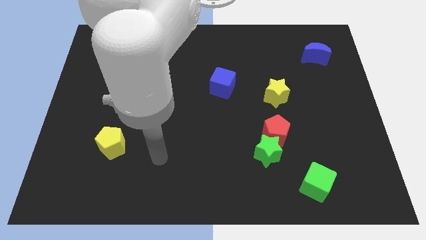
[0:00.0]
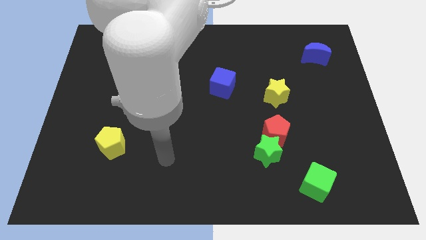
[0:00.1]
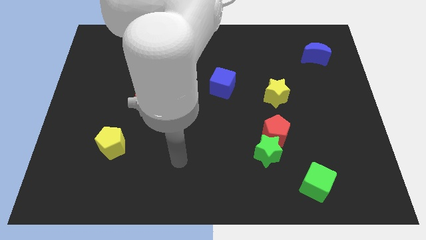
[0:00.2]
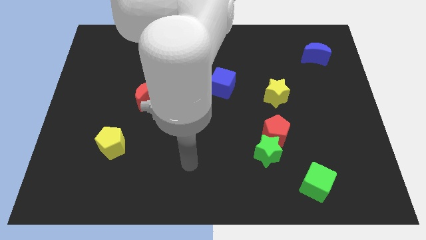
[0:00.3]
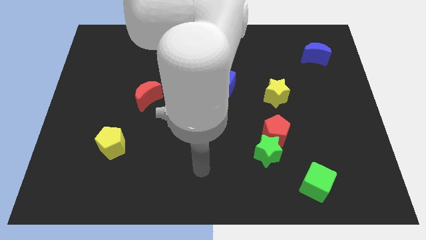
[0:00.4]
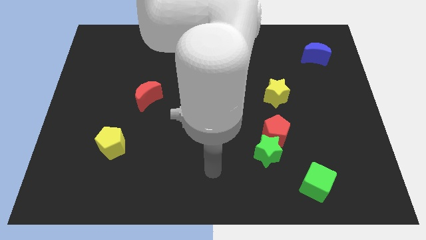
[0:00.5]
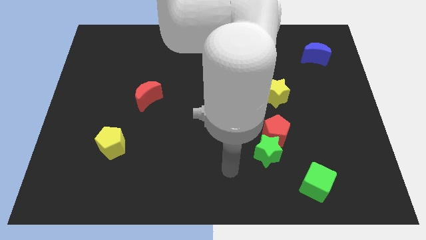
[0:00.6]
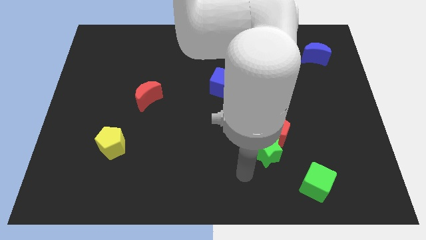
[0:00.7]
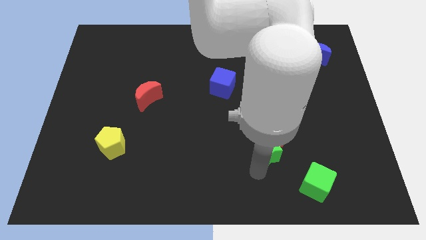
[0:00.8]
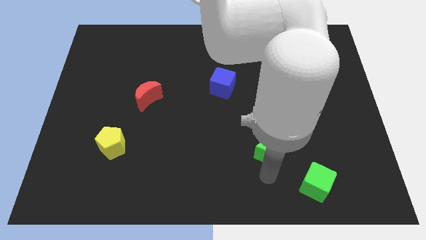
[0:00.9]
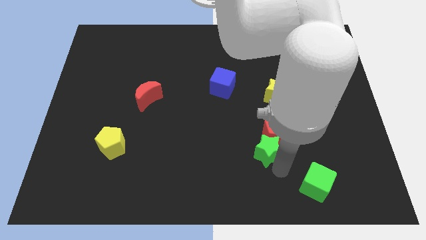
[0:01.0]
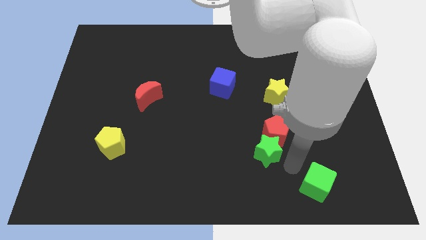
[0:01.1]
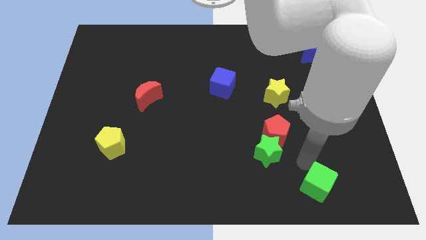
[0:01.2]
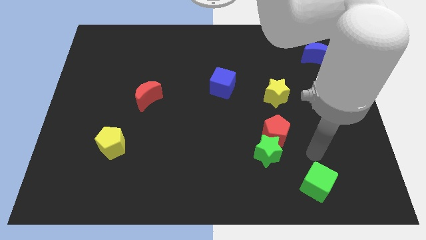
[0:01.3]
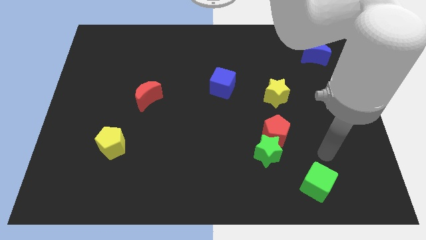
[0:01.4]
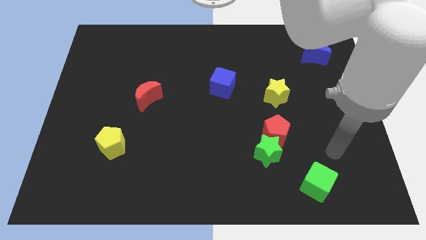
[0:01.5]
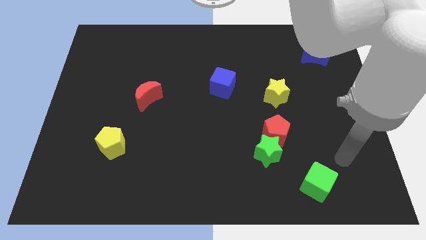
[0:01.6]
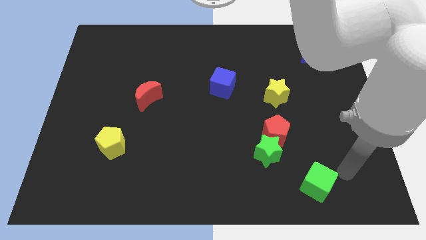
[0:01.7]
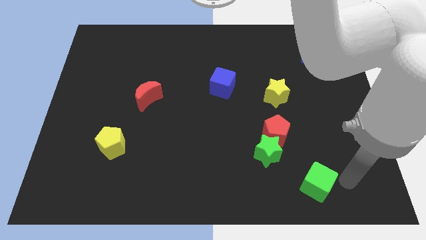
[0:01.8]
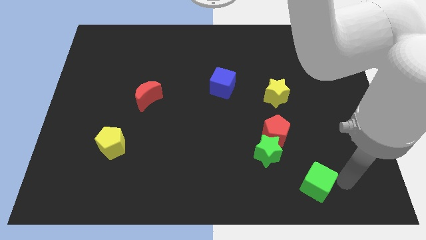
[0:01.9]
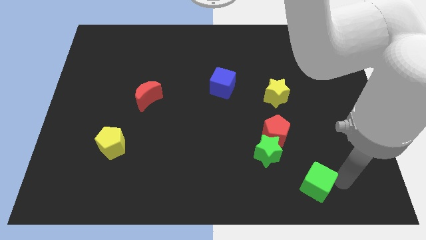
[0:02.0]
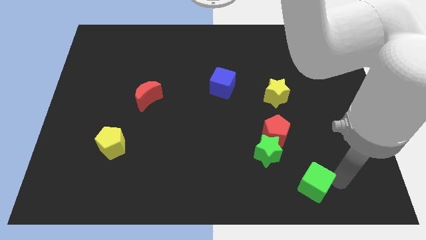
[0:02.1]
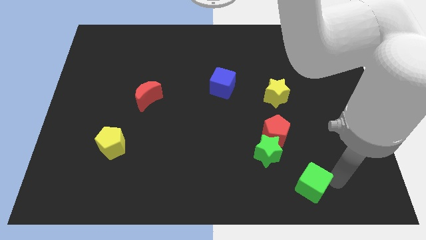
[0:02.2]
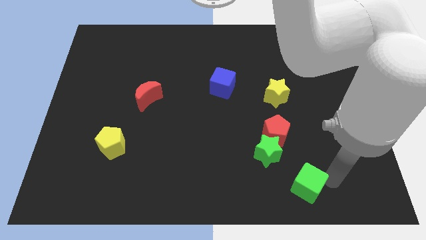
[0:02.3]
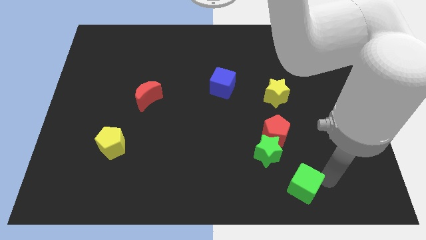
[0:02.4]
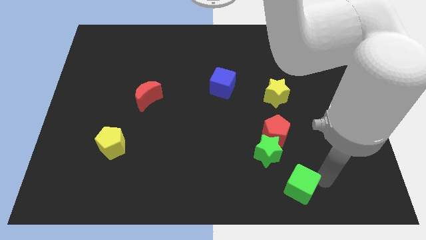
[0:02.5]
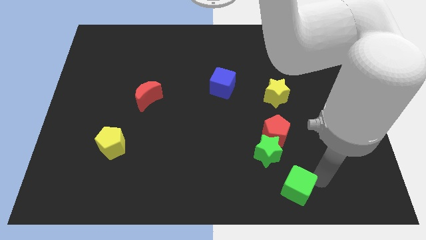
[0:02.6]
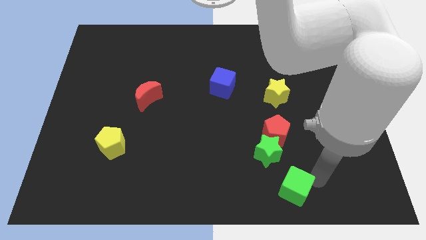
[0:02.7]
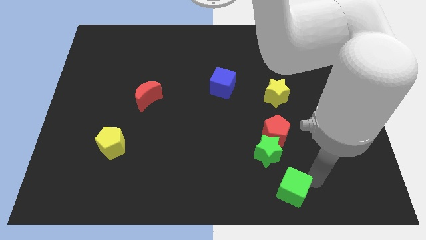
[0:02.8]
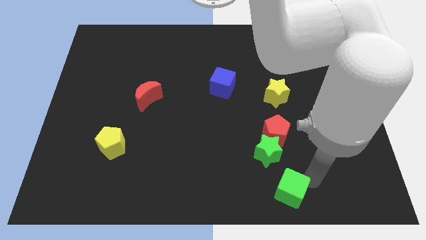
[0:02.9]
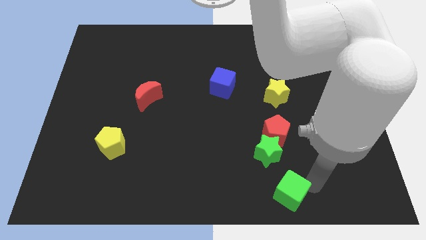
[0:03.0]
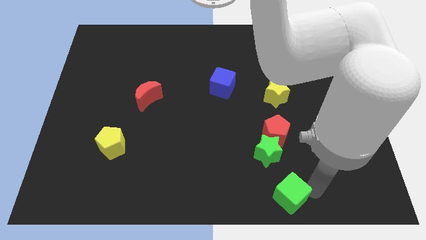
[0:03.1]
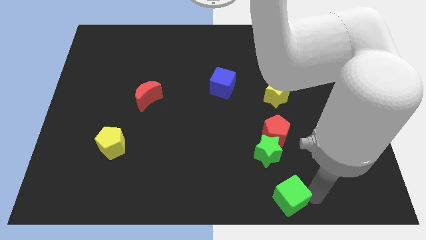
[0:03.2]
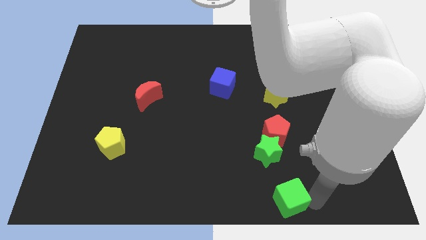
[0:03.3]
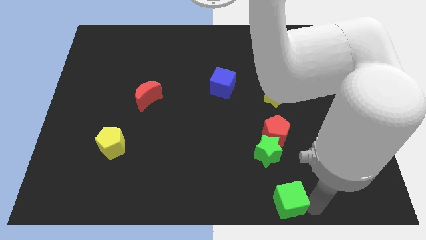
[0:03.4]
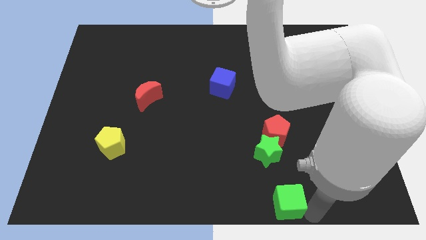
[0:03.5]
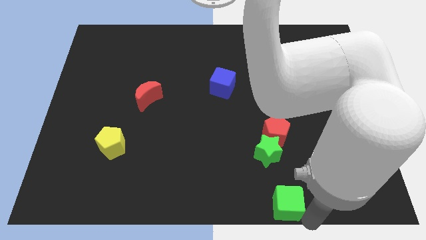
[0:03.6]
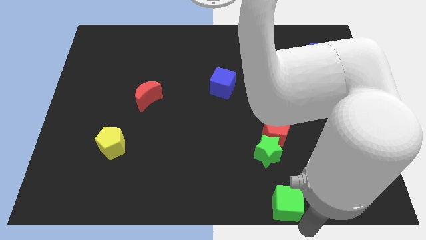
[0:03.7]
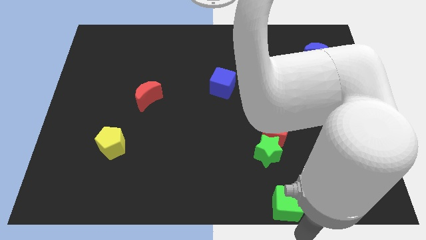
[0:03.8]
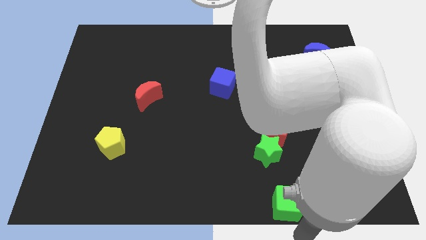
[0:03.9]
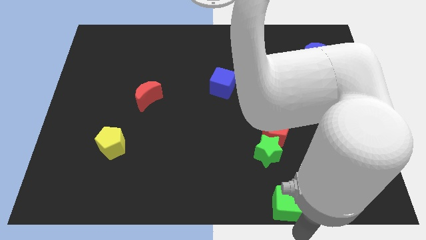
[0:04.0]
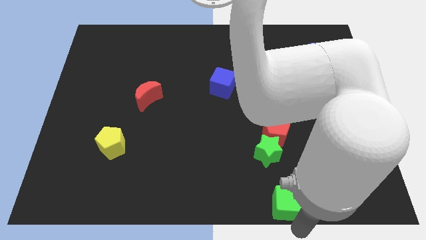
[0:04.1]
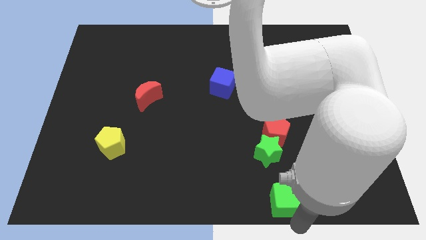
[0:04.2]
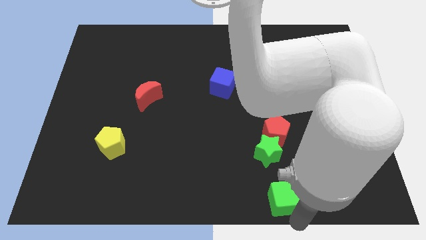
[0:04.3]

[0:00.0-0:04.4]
move the green cube to the left somewhat

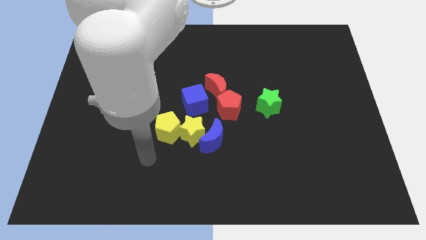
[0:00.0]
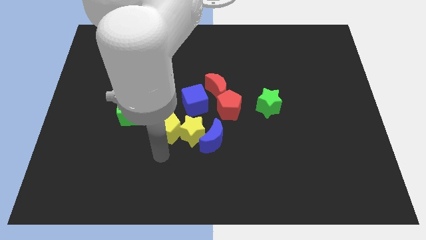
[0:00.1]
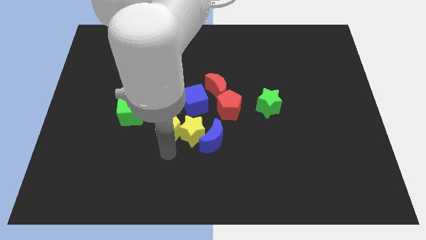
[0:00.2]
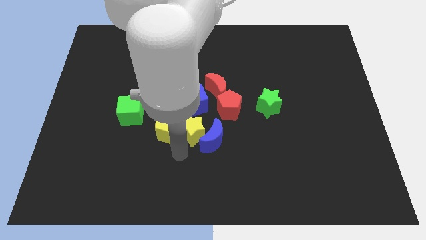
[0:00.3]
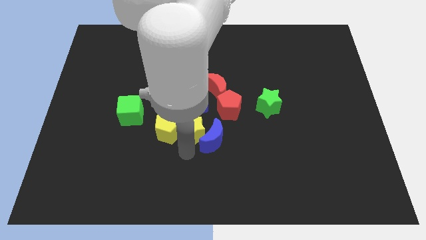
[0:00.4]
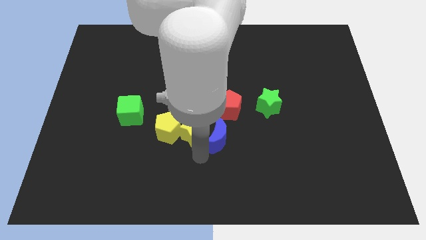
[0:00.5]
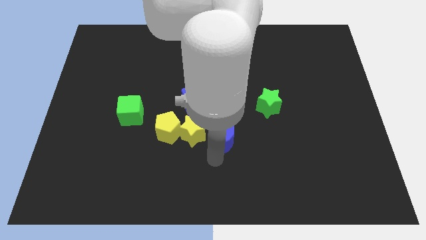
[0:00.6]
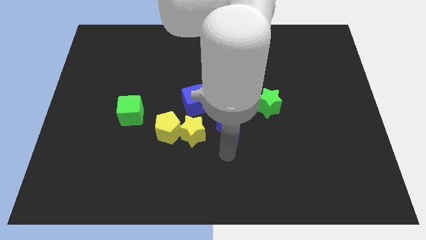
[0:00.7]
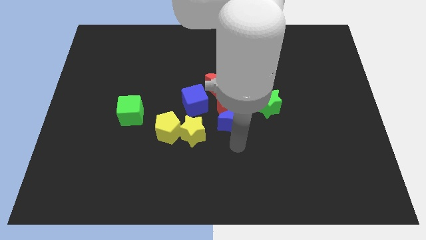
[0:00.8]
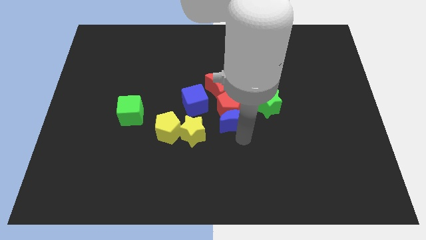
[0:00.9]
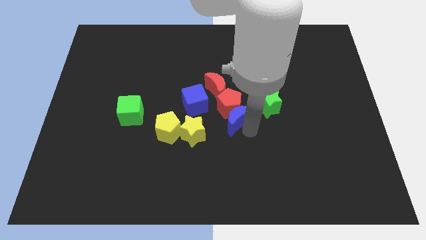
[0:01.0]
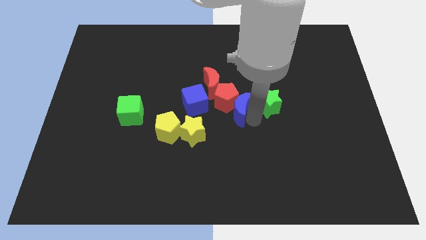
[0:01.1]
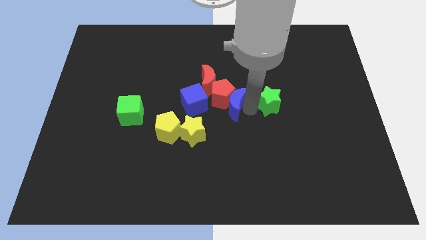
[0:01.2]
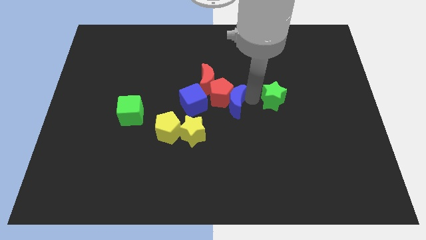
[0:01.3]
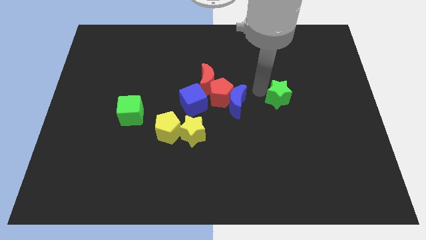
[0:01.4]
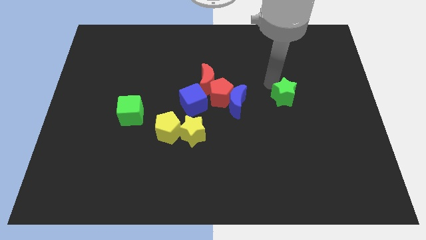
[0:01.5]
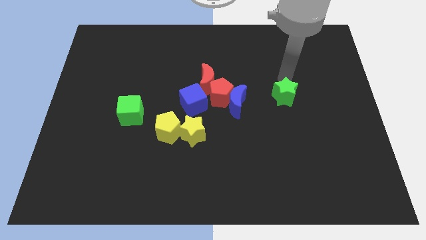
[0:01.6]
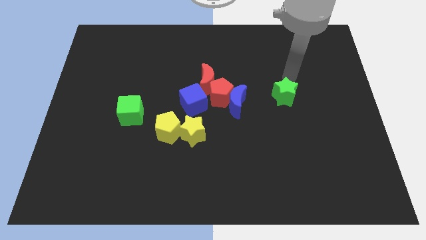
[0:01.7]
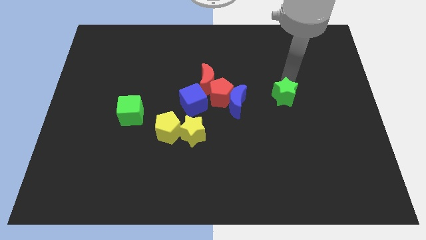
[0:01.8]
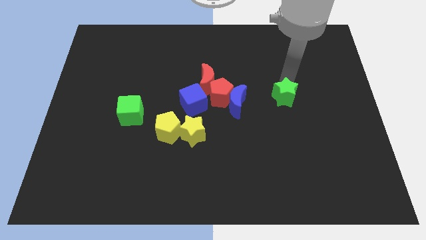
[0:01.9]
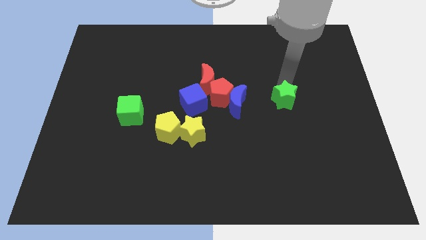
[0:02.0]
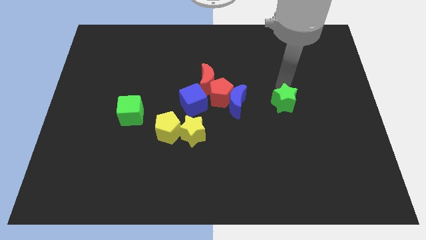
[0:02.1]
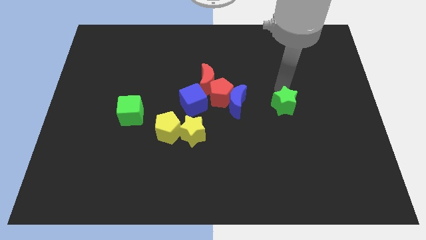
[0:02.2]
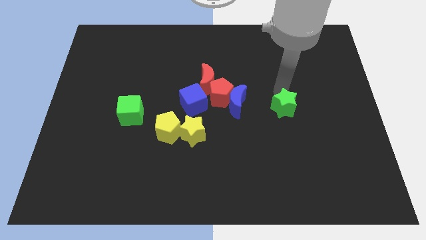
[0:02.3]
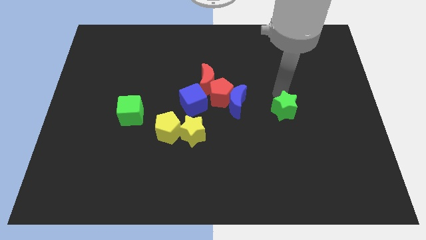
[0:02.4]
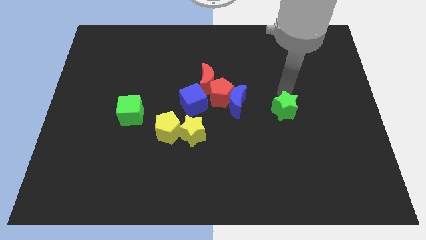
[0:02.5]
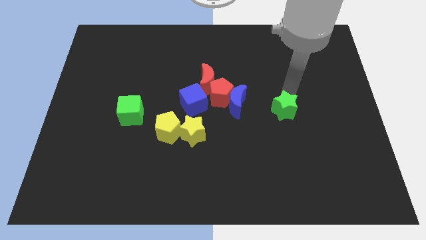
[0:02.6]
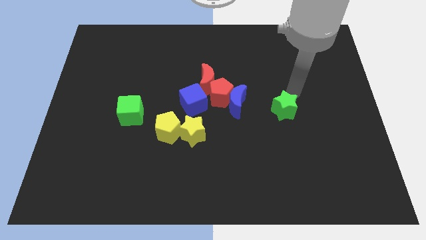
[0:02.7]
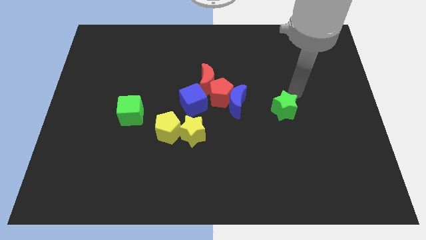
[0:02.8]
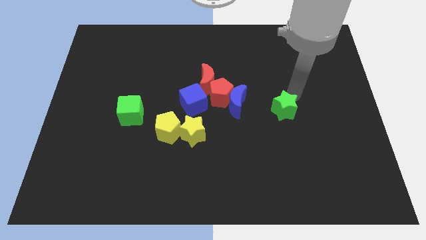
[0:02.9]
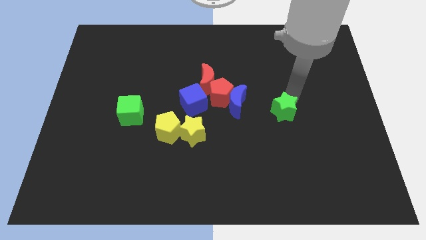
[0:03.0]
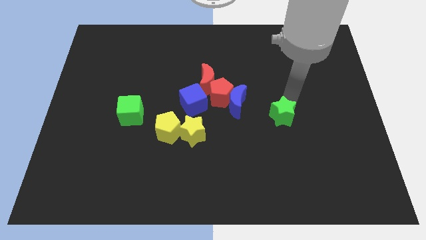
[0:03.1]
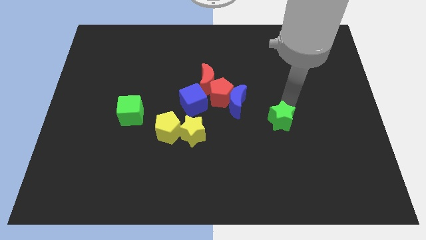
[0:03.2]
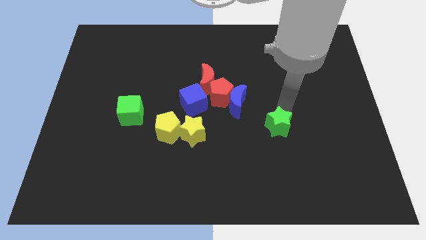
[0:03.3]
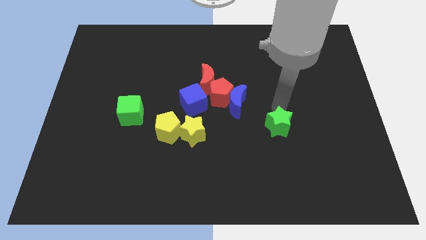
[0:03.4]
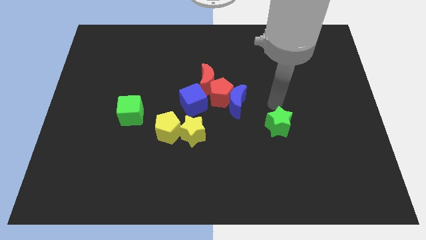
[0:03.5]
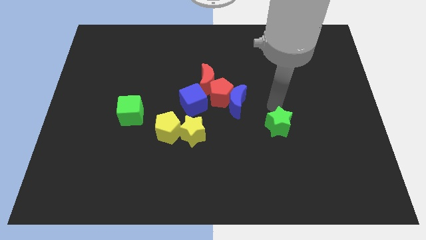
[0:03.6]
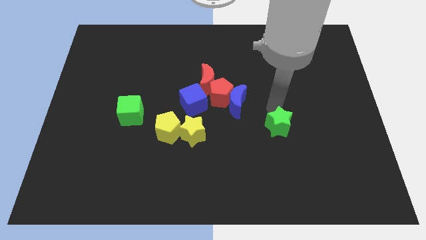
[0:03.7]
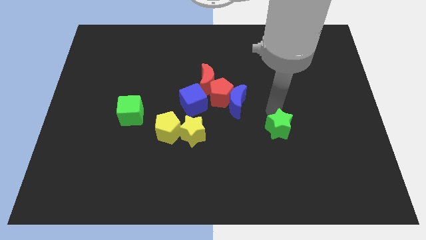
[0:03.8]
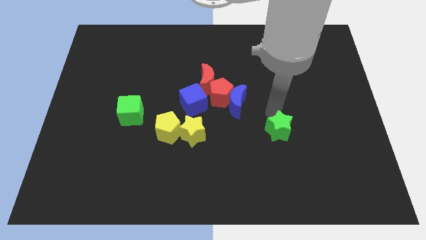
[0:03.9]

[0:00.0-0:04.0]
push the green star down slightly
